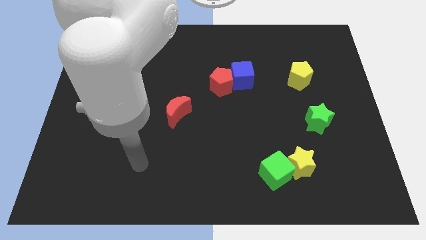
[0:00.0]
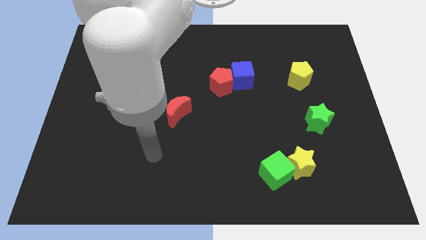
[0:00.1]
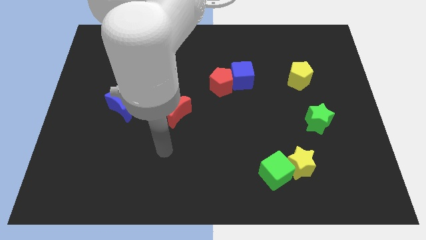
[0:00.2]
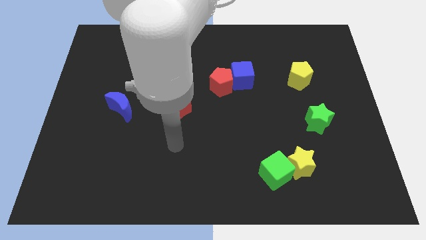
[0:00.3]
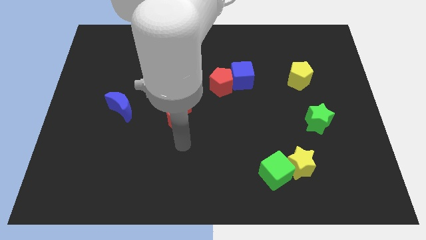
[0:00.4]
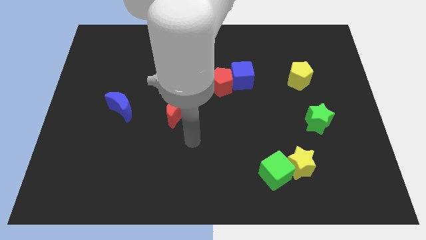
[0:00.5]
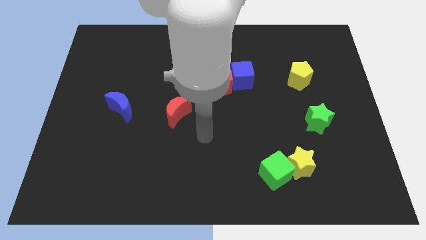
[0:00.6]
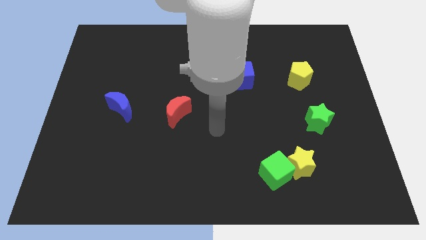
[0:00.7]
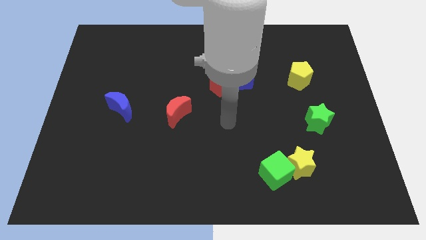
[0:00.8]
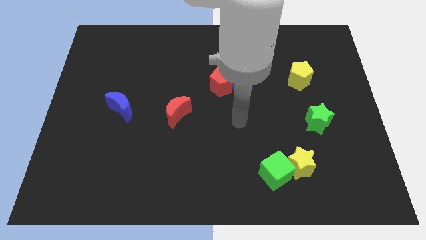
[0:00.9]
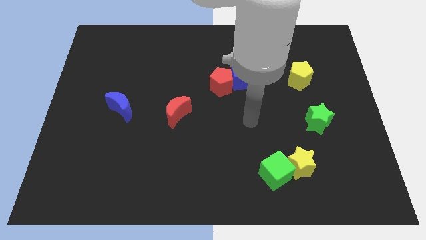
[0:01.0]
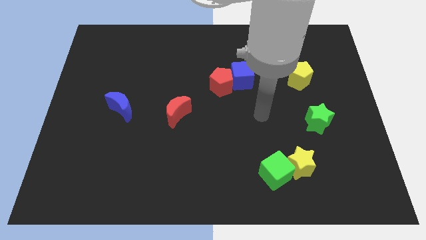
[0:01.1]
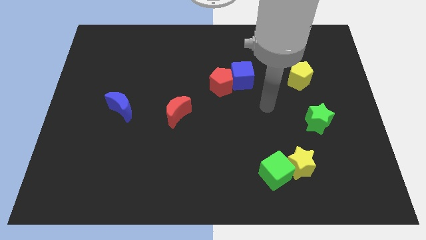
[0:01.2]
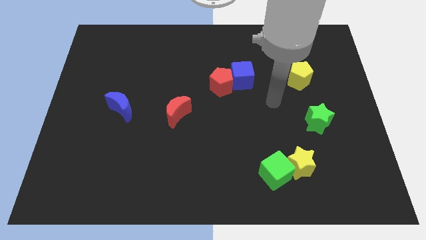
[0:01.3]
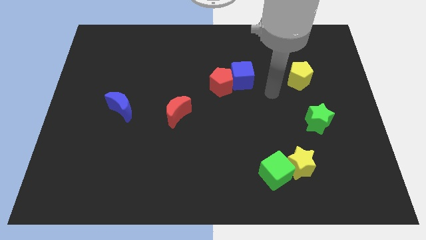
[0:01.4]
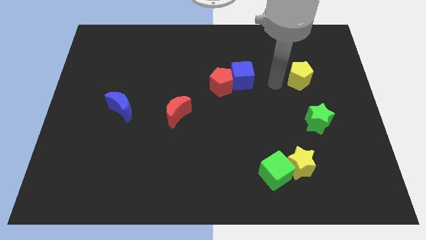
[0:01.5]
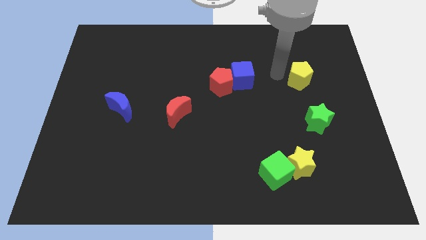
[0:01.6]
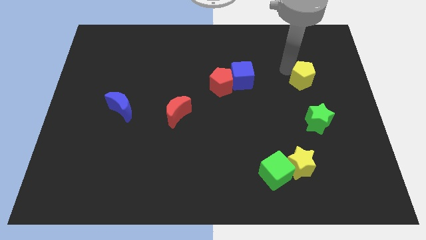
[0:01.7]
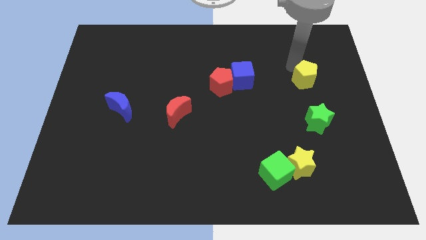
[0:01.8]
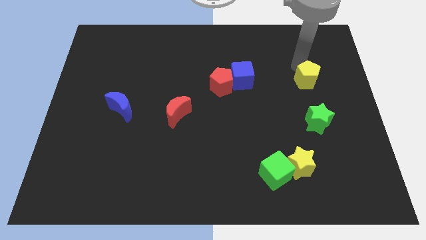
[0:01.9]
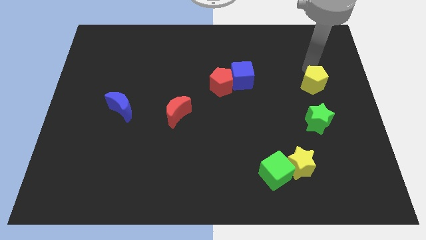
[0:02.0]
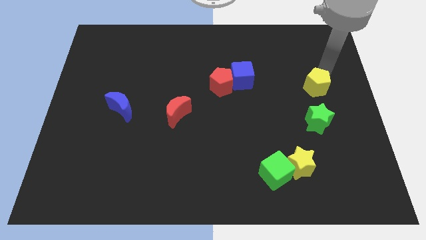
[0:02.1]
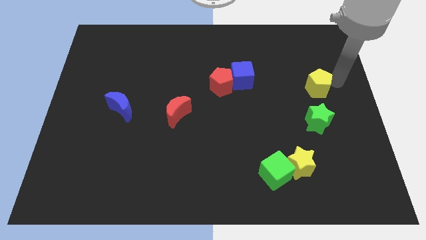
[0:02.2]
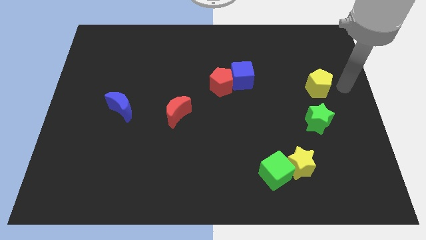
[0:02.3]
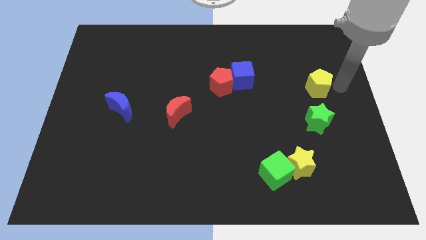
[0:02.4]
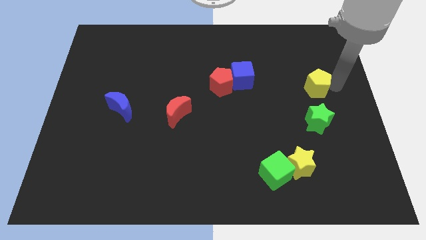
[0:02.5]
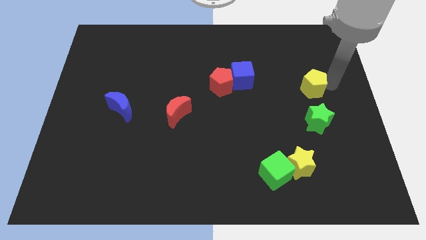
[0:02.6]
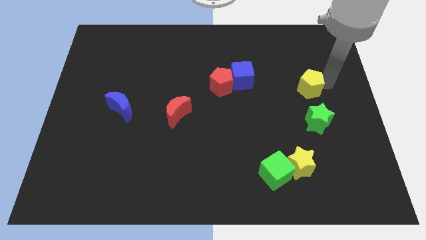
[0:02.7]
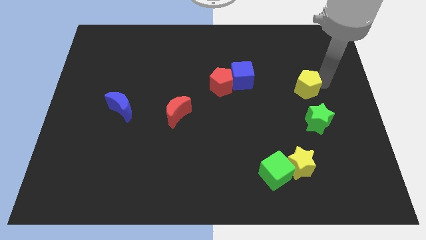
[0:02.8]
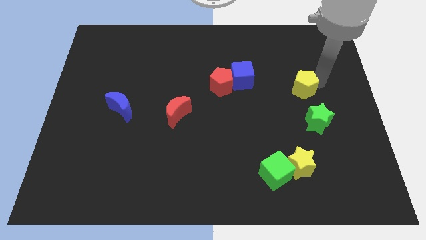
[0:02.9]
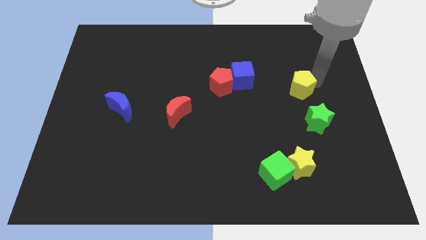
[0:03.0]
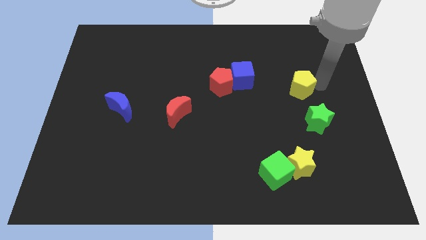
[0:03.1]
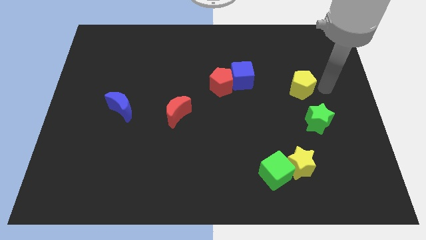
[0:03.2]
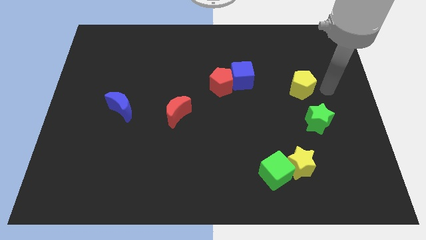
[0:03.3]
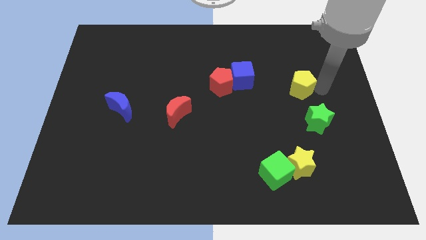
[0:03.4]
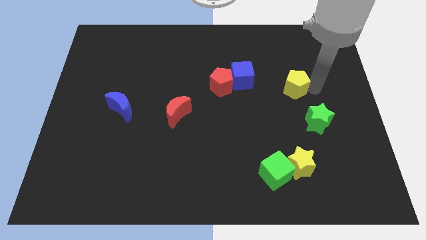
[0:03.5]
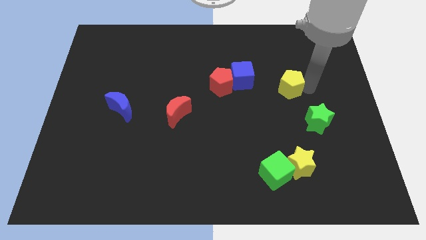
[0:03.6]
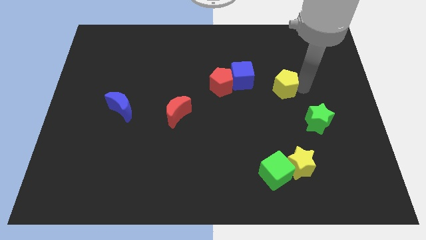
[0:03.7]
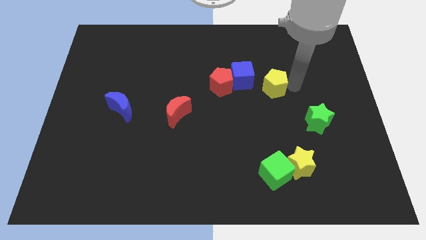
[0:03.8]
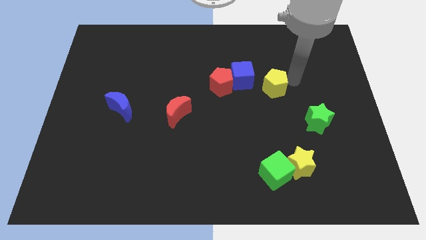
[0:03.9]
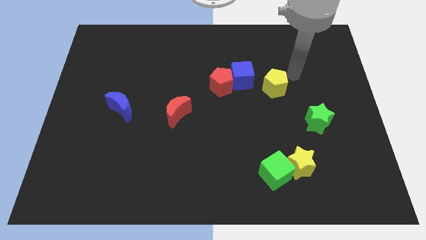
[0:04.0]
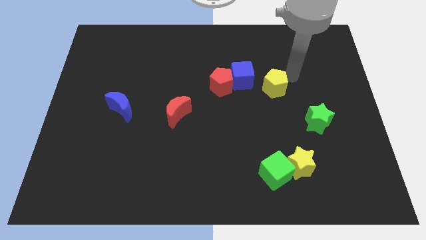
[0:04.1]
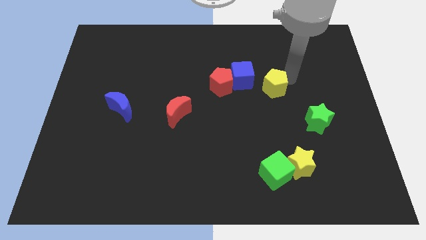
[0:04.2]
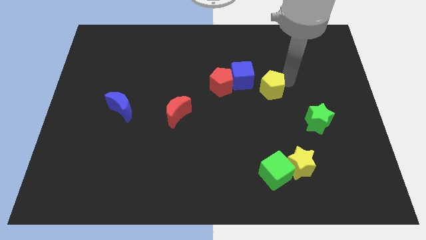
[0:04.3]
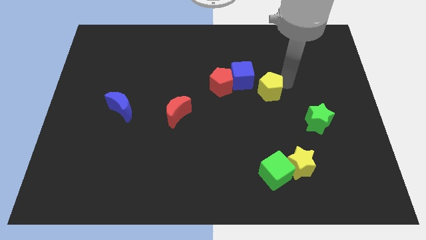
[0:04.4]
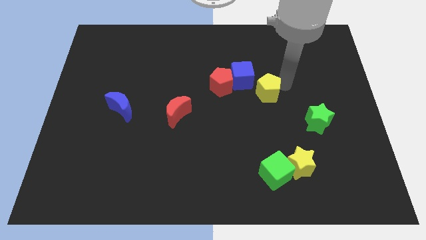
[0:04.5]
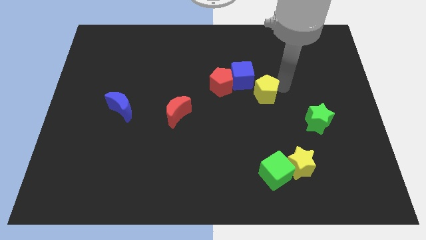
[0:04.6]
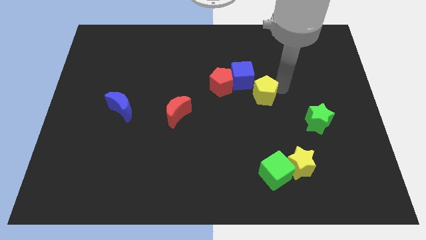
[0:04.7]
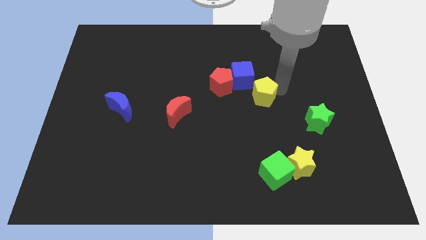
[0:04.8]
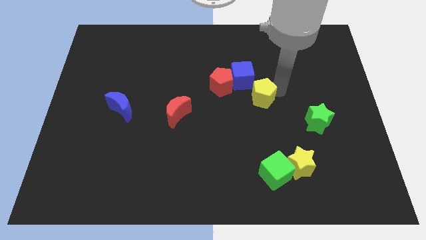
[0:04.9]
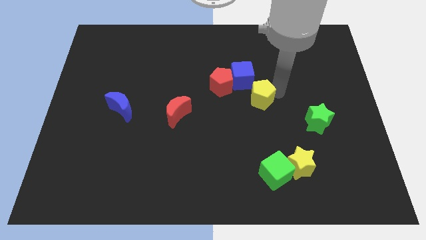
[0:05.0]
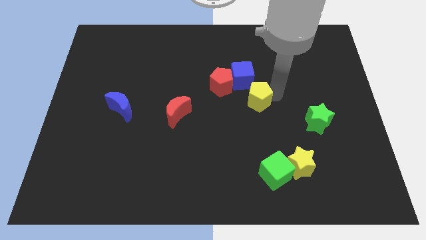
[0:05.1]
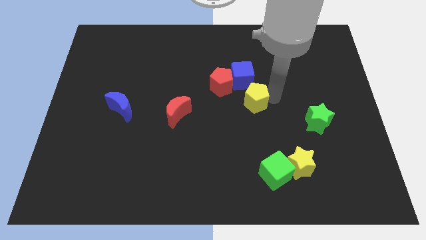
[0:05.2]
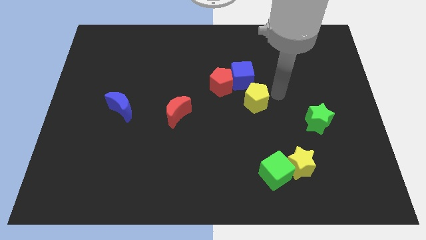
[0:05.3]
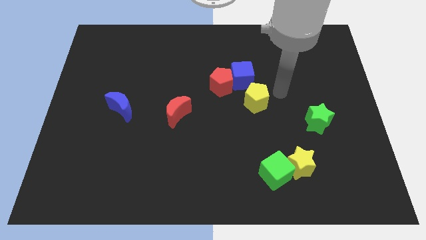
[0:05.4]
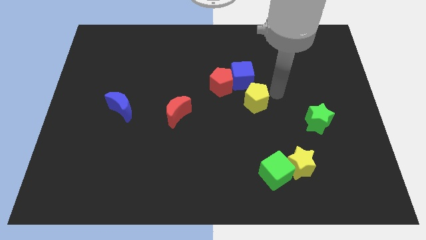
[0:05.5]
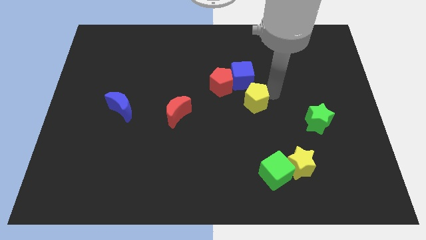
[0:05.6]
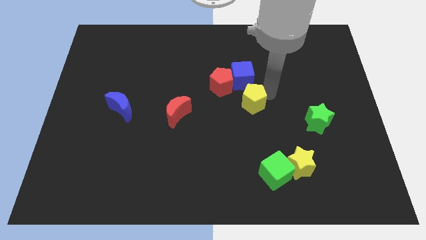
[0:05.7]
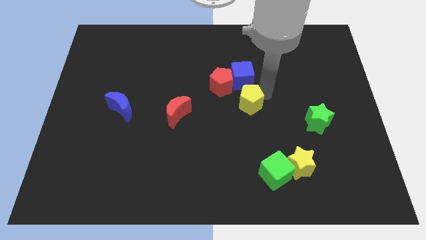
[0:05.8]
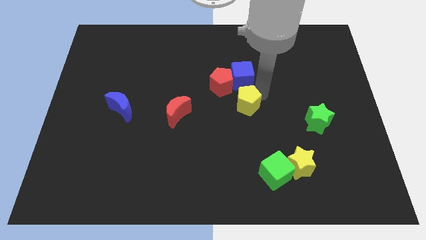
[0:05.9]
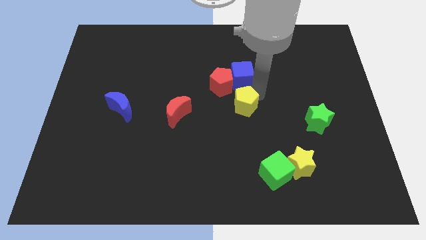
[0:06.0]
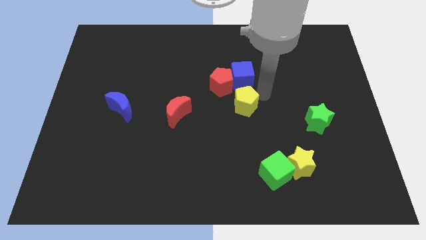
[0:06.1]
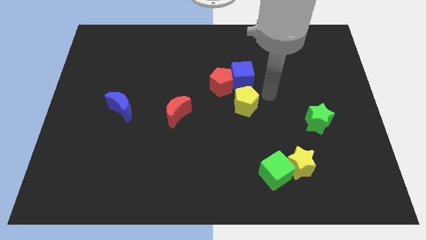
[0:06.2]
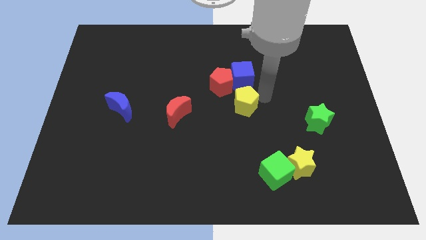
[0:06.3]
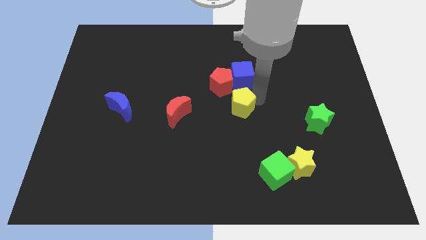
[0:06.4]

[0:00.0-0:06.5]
push the yellow pentagon to the right of the red moon

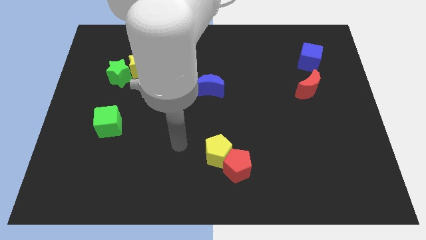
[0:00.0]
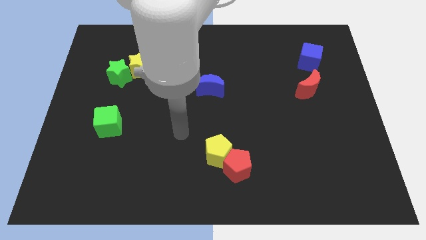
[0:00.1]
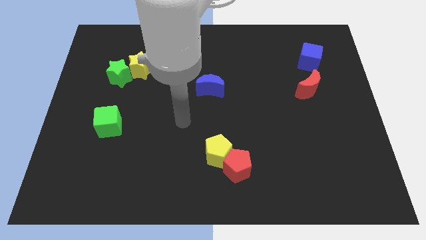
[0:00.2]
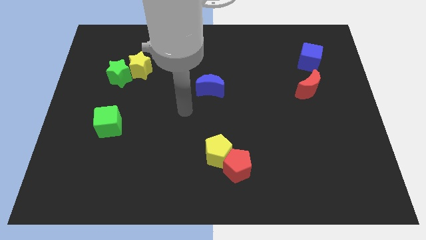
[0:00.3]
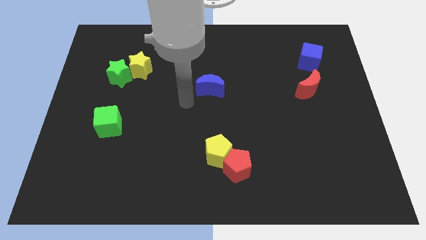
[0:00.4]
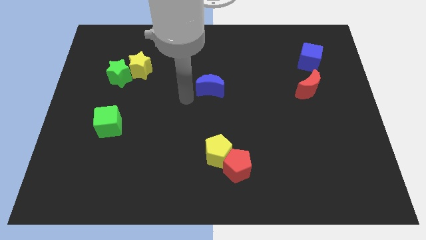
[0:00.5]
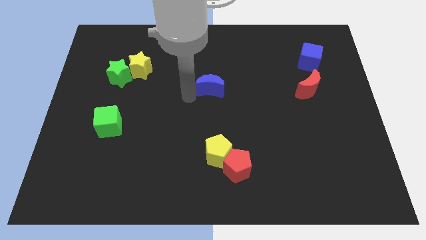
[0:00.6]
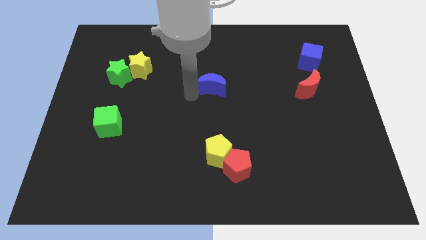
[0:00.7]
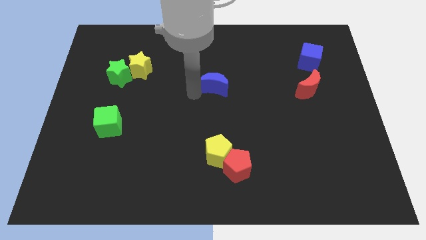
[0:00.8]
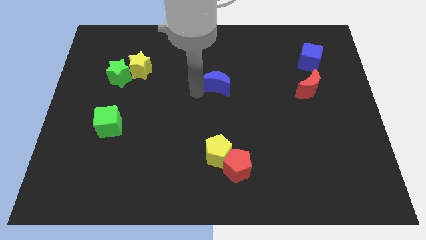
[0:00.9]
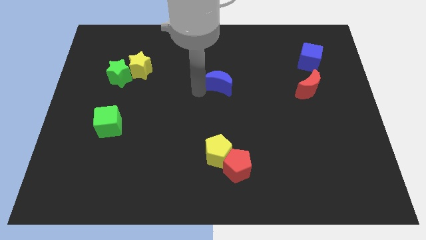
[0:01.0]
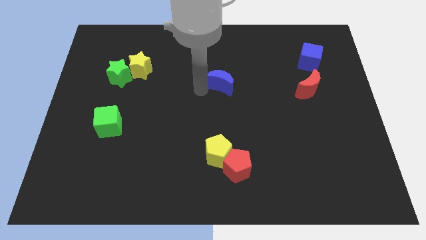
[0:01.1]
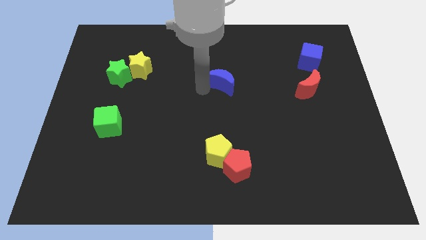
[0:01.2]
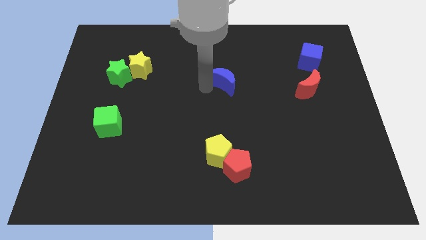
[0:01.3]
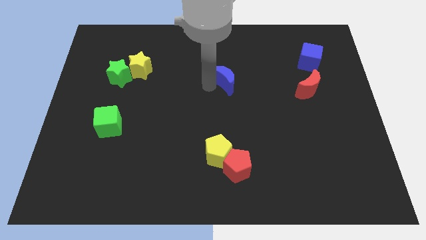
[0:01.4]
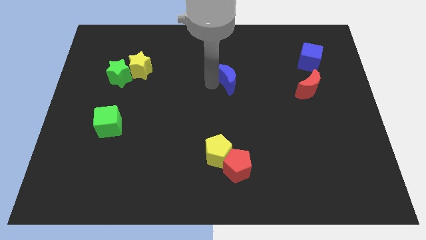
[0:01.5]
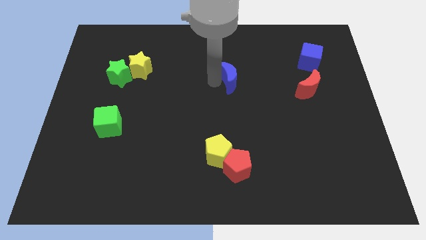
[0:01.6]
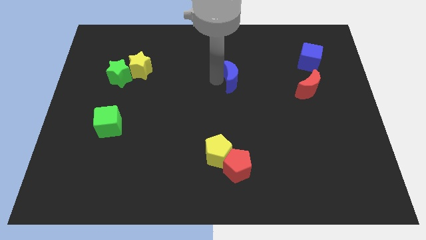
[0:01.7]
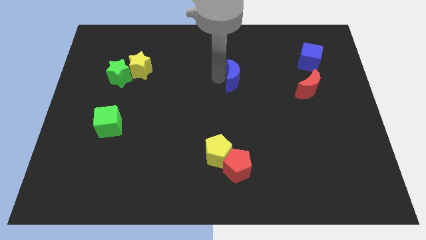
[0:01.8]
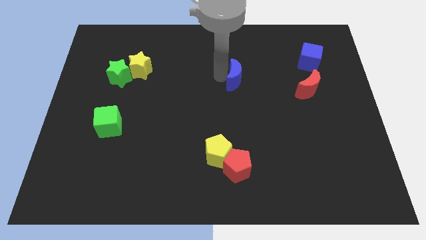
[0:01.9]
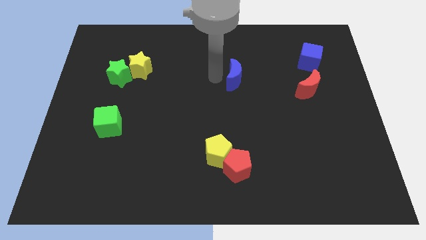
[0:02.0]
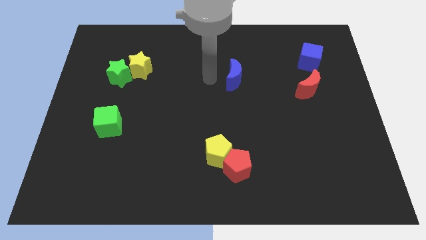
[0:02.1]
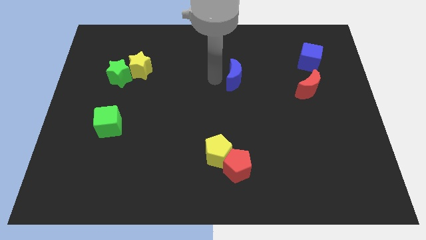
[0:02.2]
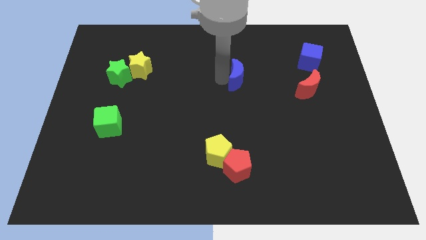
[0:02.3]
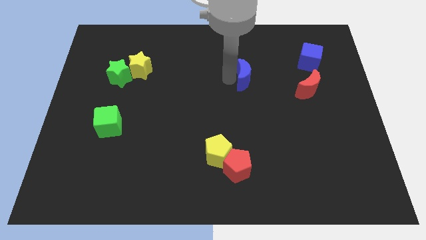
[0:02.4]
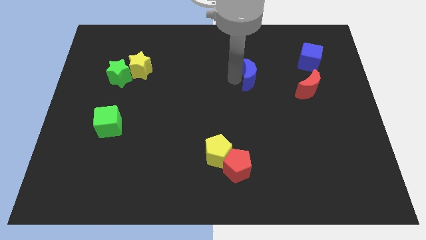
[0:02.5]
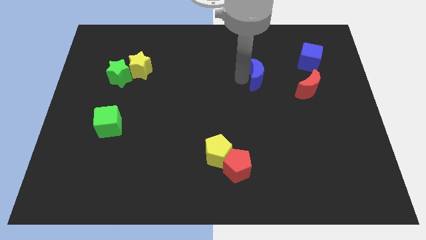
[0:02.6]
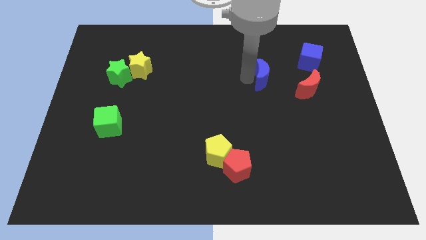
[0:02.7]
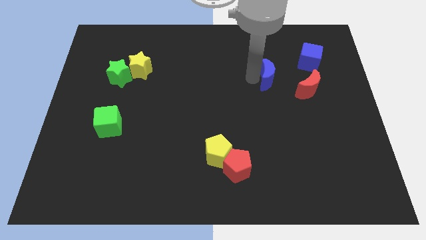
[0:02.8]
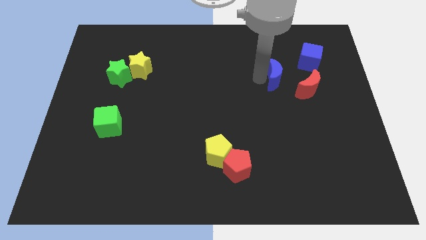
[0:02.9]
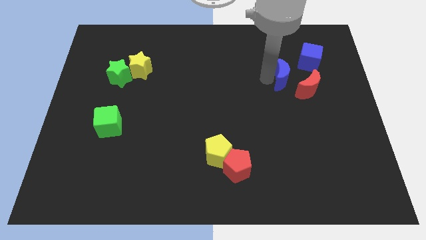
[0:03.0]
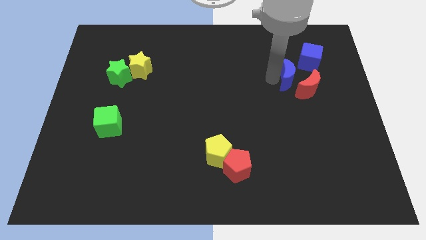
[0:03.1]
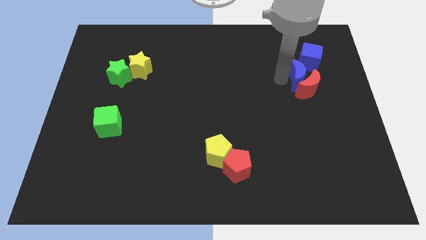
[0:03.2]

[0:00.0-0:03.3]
push the blue moon to the top right of the red moon
